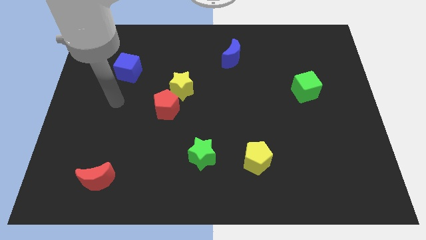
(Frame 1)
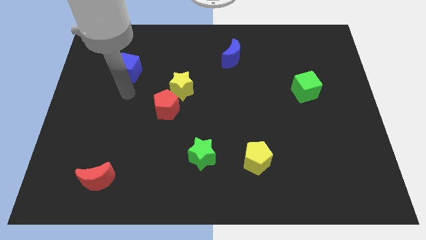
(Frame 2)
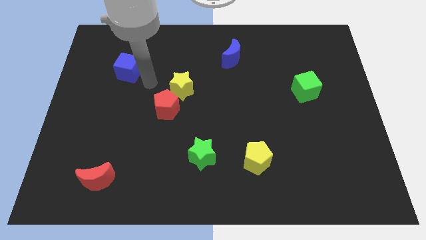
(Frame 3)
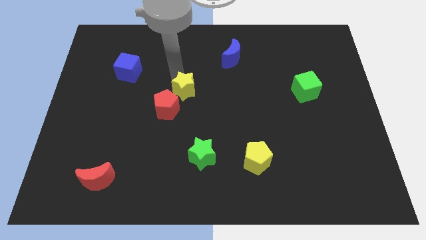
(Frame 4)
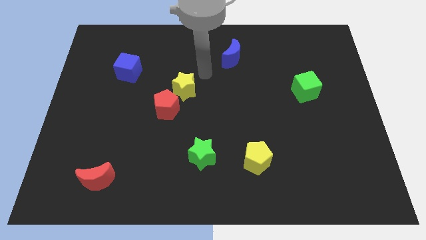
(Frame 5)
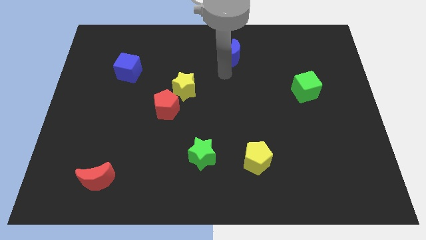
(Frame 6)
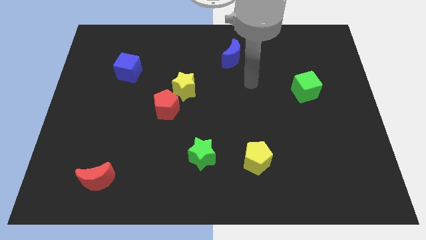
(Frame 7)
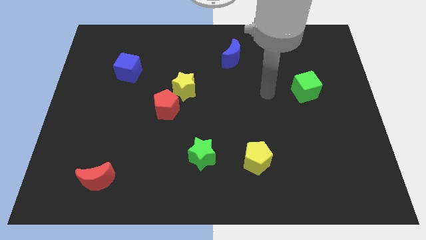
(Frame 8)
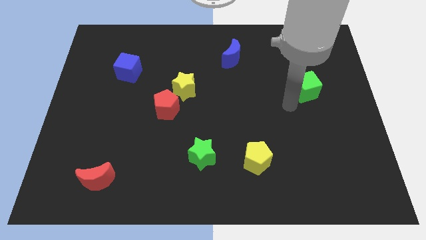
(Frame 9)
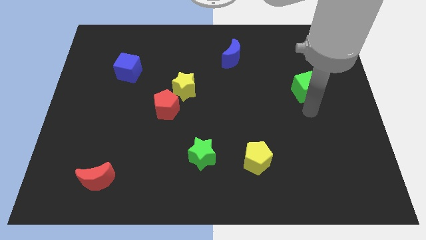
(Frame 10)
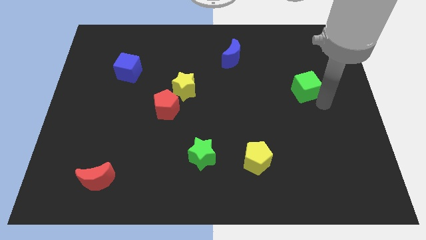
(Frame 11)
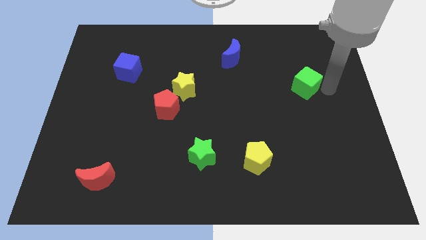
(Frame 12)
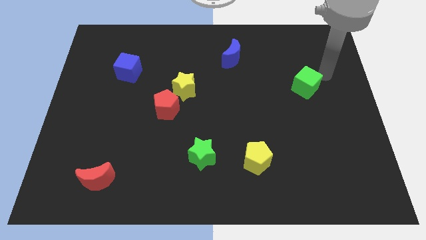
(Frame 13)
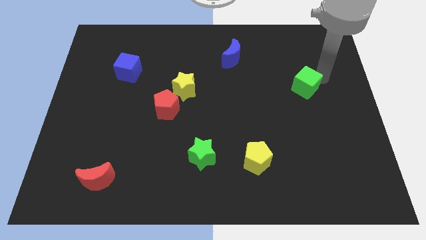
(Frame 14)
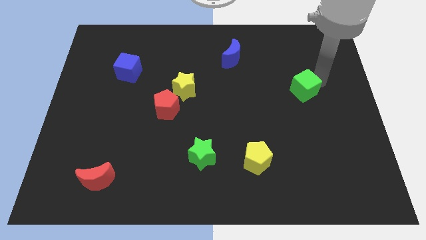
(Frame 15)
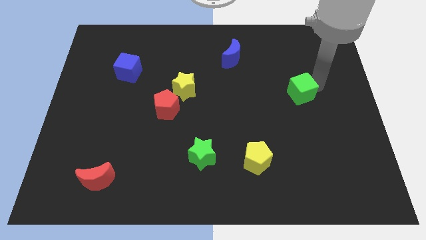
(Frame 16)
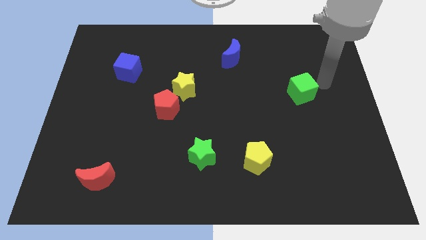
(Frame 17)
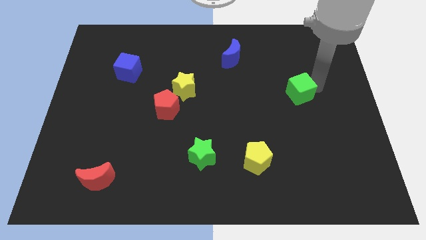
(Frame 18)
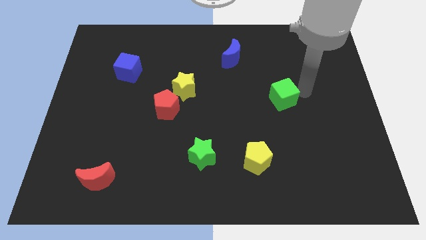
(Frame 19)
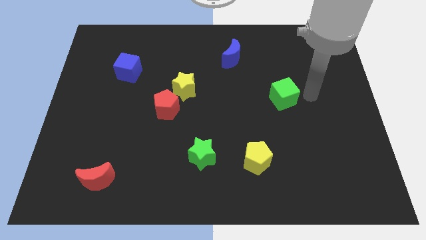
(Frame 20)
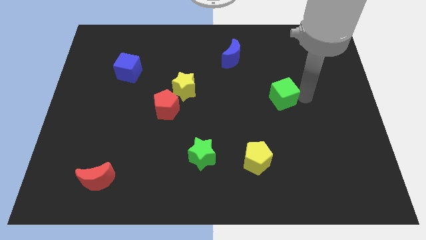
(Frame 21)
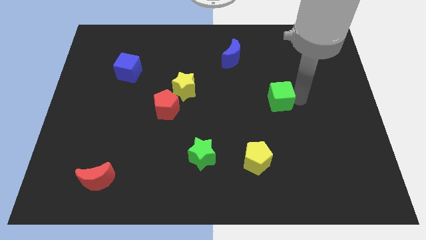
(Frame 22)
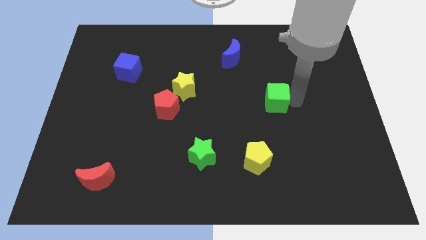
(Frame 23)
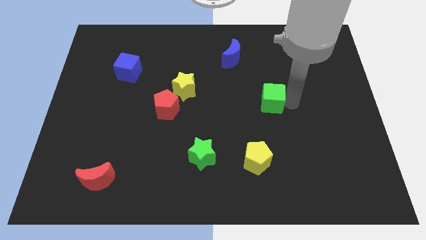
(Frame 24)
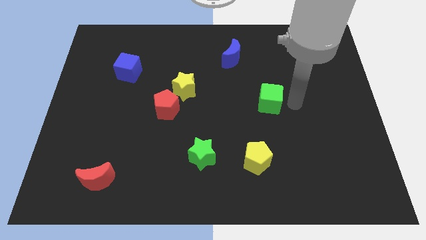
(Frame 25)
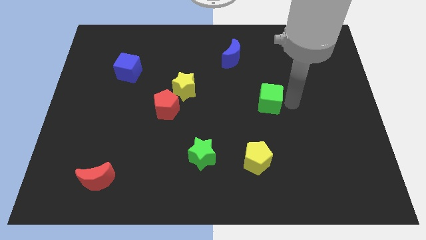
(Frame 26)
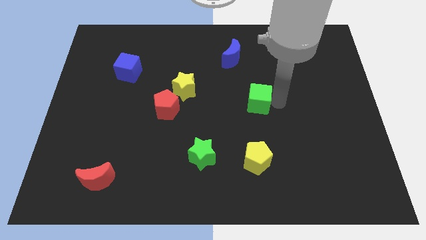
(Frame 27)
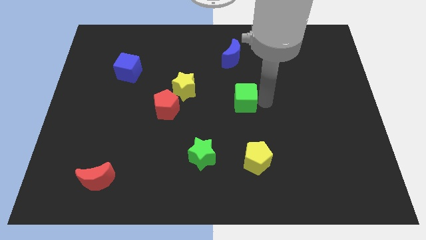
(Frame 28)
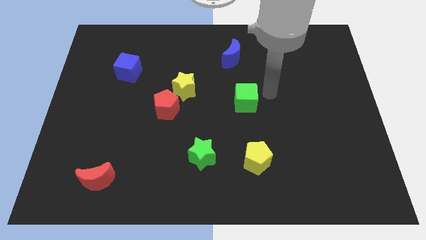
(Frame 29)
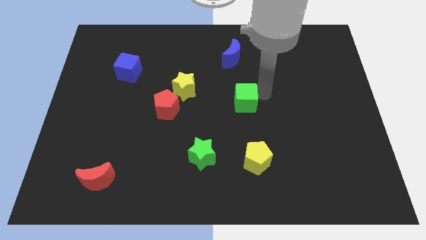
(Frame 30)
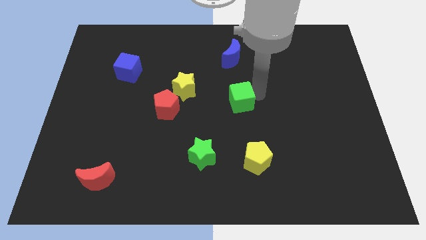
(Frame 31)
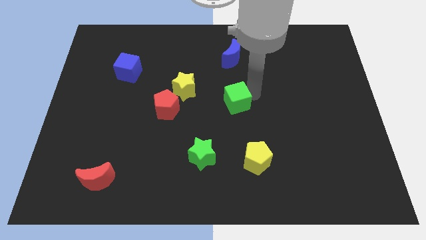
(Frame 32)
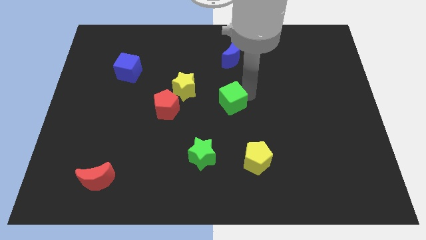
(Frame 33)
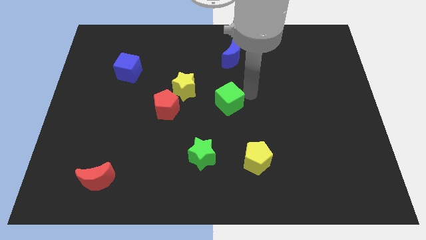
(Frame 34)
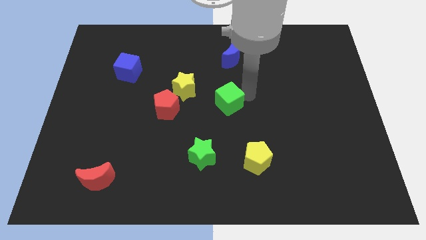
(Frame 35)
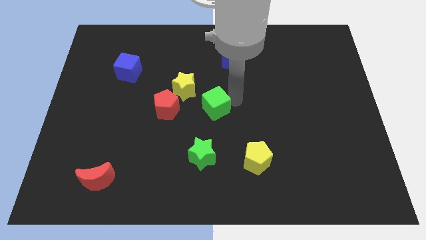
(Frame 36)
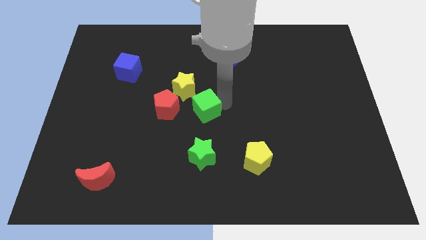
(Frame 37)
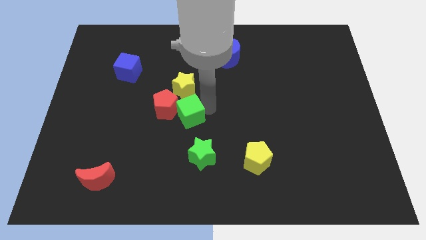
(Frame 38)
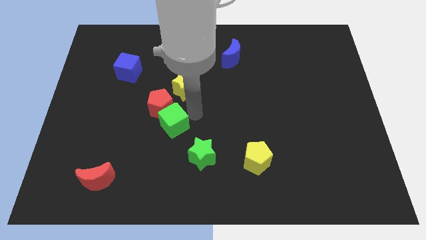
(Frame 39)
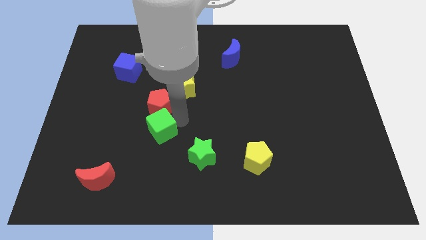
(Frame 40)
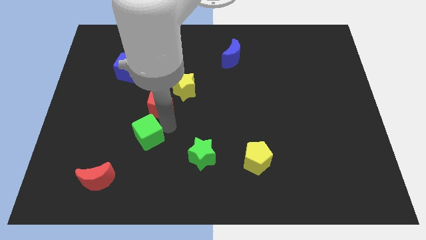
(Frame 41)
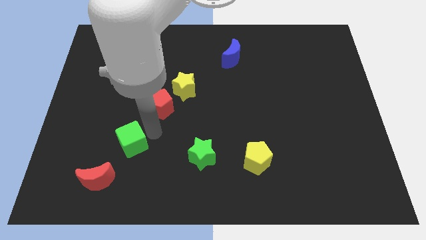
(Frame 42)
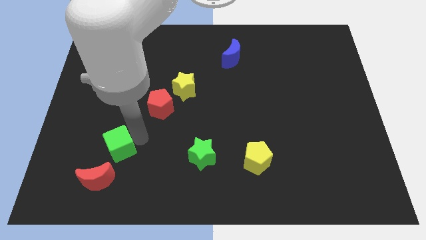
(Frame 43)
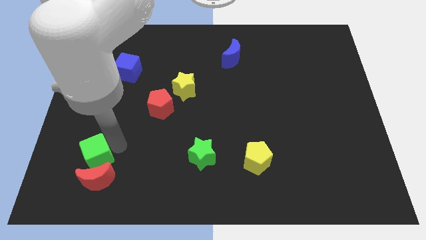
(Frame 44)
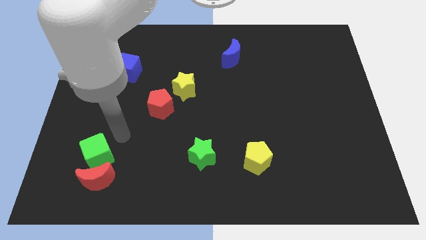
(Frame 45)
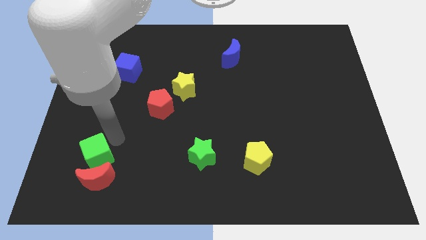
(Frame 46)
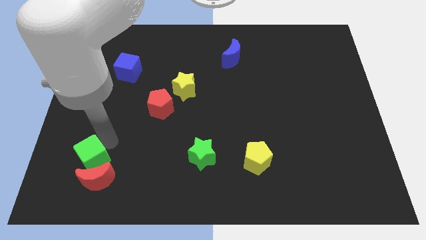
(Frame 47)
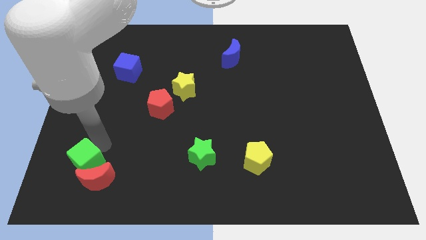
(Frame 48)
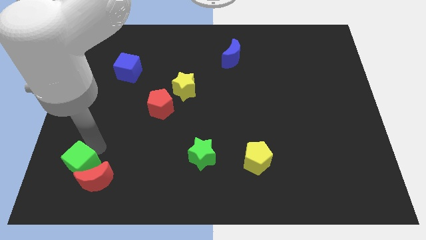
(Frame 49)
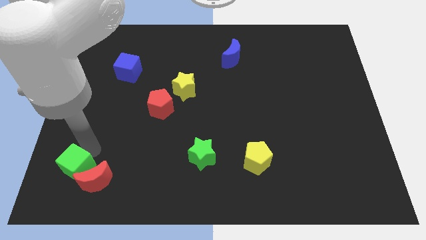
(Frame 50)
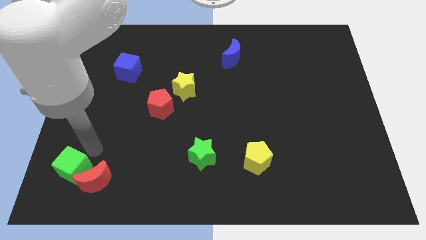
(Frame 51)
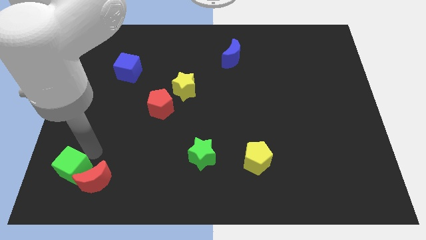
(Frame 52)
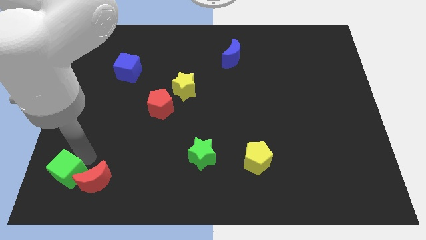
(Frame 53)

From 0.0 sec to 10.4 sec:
push the green cube to the bottom left of the board

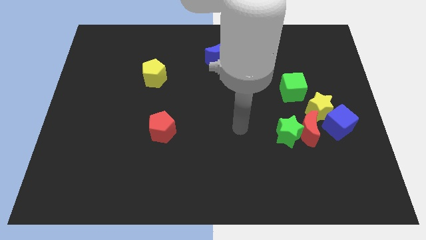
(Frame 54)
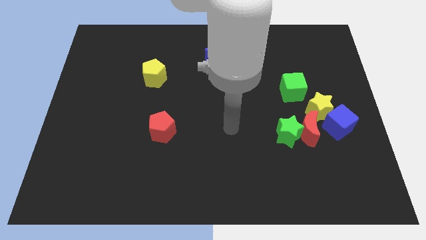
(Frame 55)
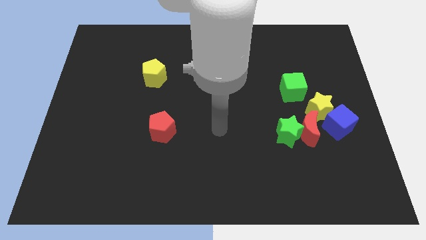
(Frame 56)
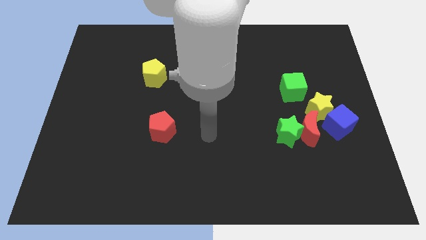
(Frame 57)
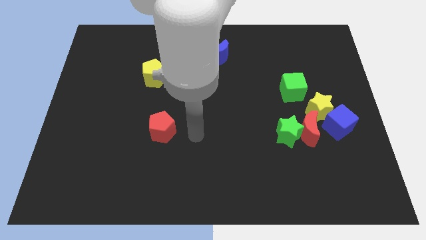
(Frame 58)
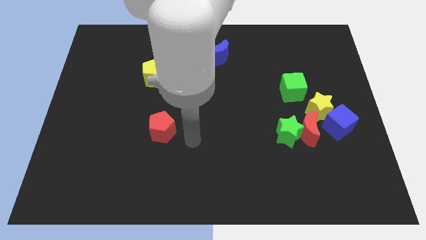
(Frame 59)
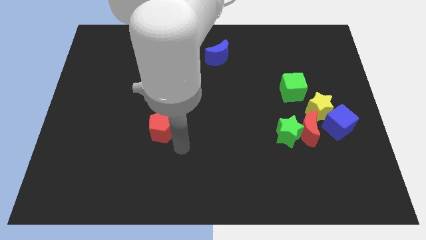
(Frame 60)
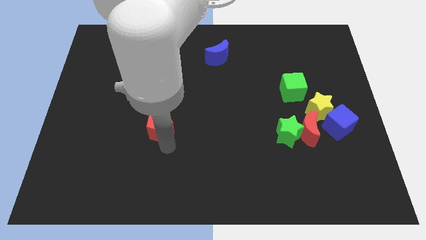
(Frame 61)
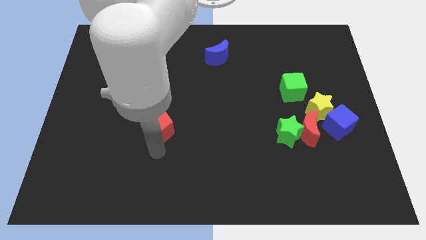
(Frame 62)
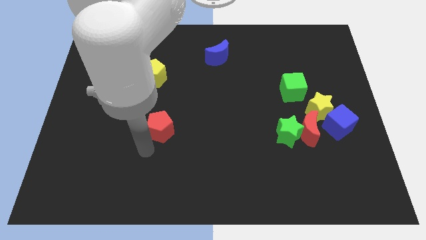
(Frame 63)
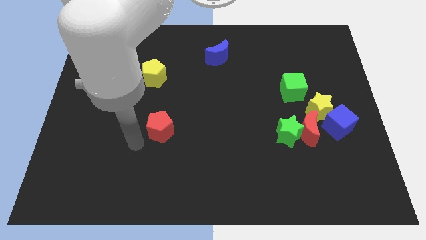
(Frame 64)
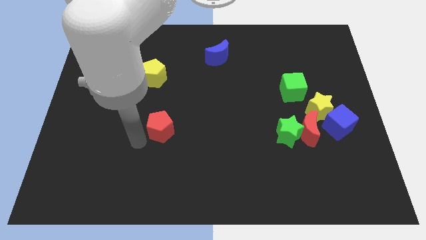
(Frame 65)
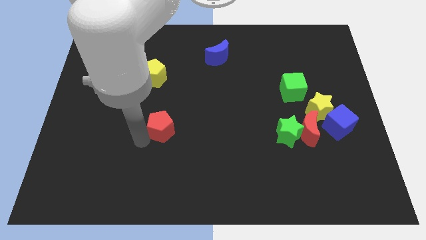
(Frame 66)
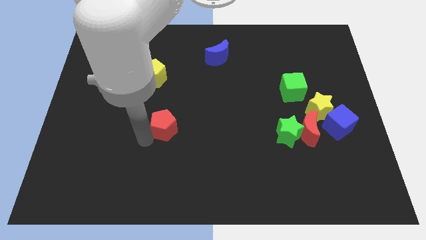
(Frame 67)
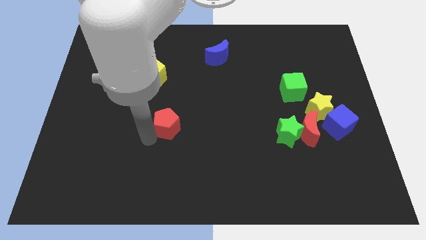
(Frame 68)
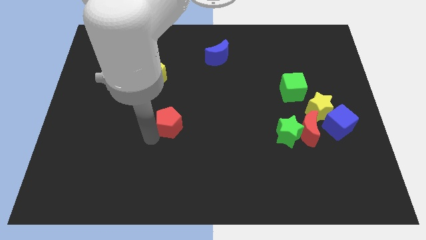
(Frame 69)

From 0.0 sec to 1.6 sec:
push the red pentagon to the center of the board
